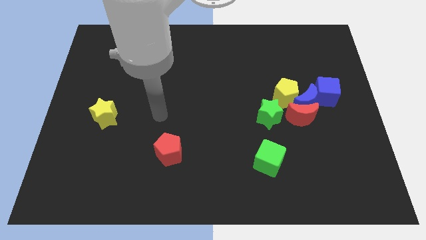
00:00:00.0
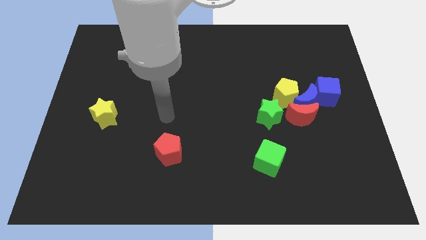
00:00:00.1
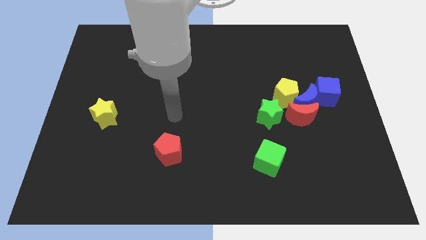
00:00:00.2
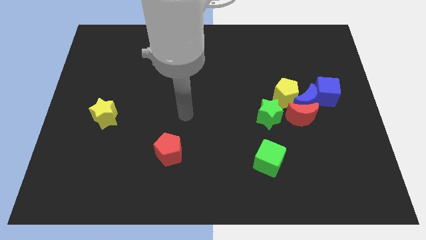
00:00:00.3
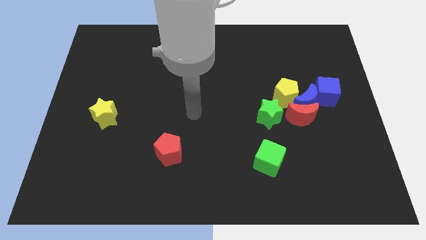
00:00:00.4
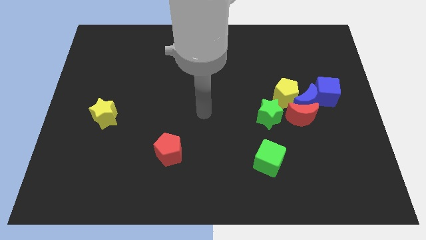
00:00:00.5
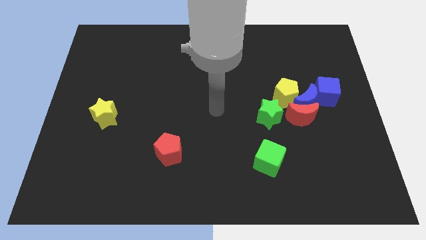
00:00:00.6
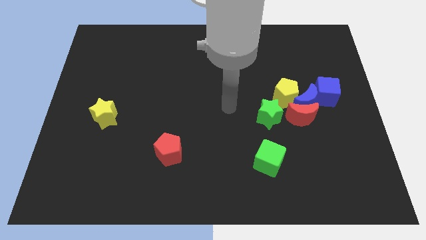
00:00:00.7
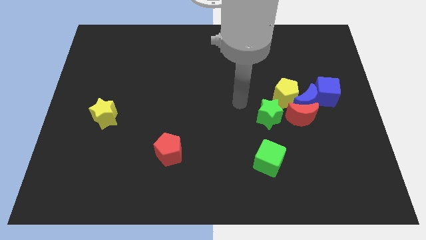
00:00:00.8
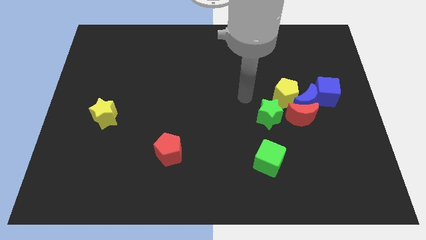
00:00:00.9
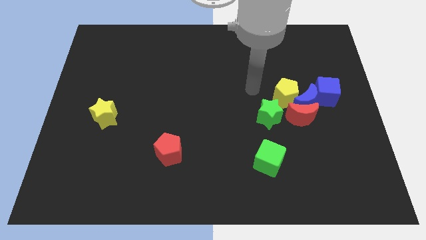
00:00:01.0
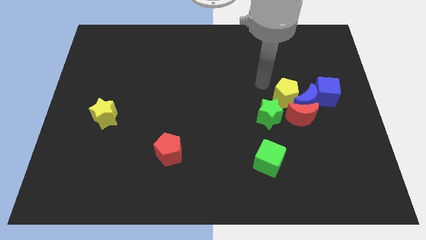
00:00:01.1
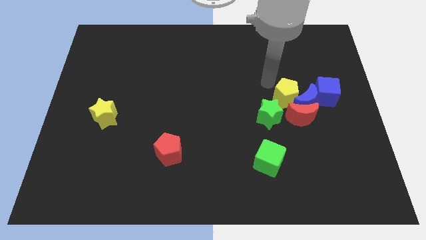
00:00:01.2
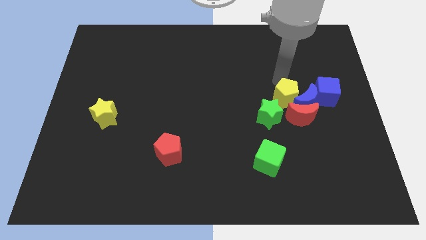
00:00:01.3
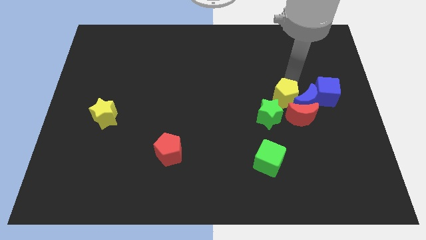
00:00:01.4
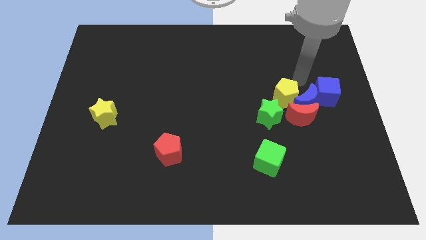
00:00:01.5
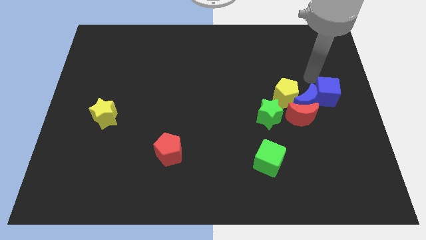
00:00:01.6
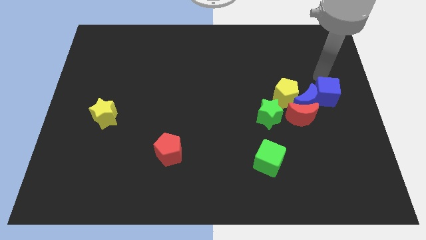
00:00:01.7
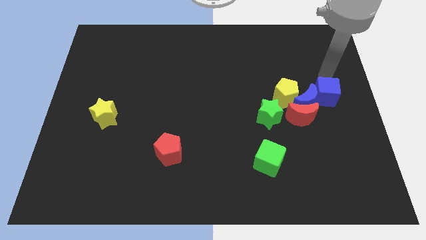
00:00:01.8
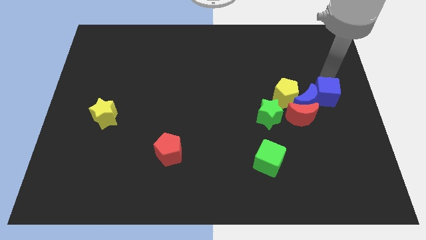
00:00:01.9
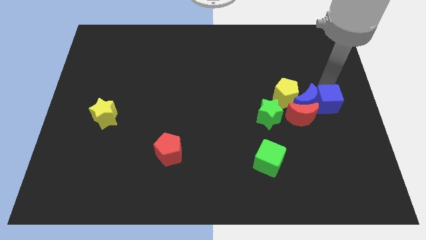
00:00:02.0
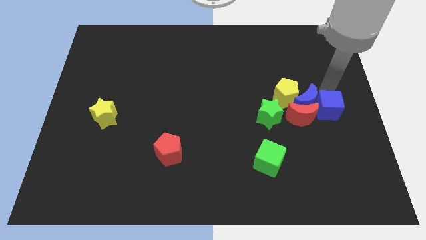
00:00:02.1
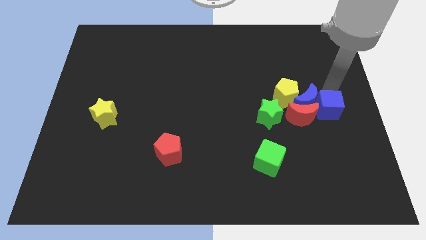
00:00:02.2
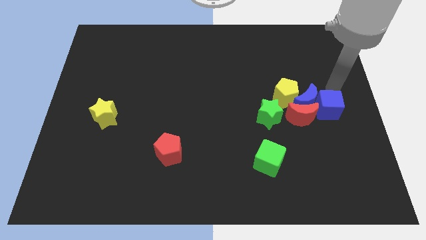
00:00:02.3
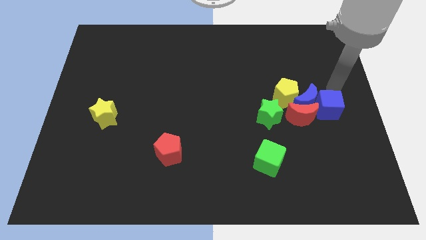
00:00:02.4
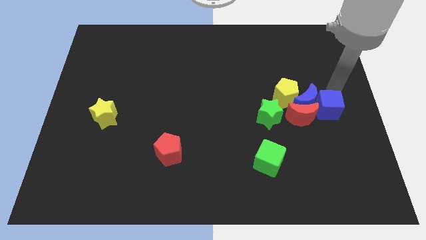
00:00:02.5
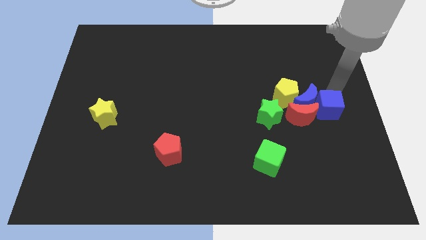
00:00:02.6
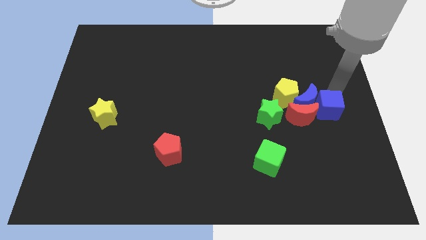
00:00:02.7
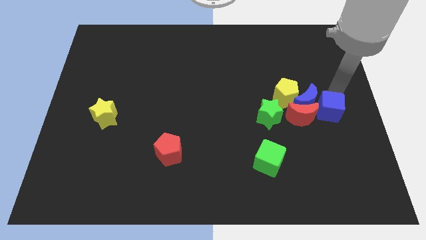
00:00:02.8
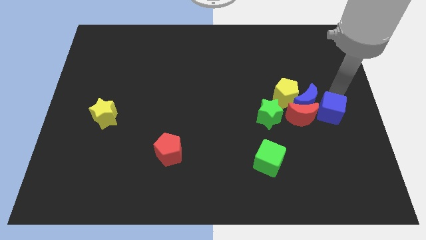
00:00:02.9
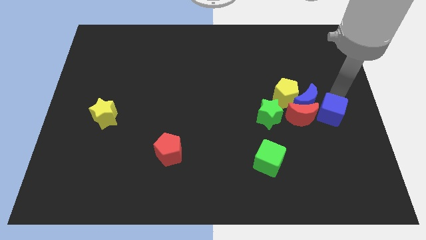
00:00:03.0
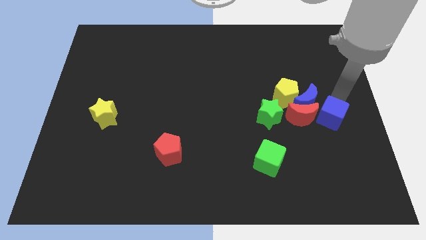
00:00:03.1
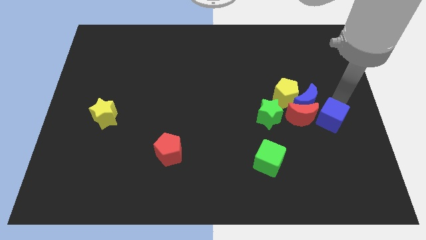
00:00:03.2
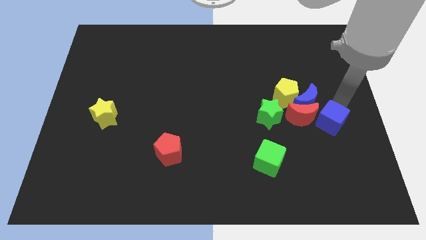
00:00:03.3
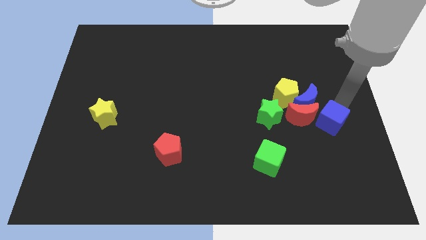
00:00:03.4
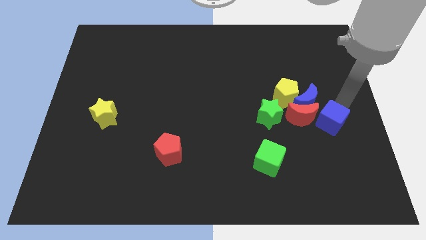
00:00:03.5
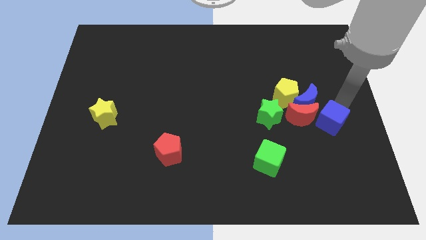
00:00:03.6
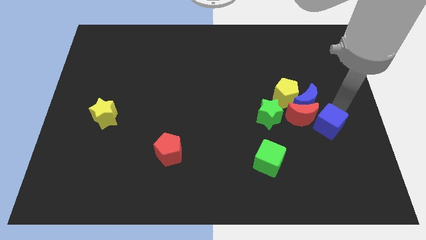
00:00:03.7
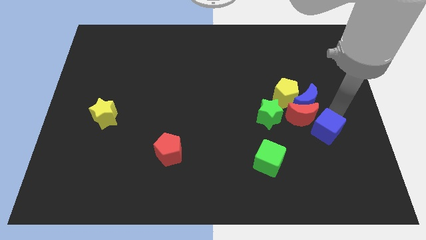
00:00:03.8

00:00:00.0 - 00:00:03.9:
slightly move the blue cube diagonally downwards and to the left

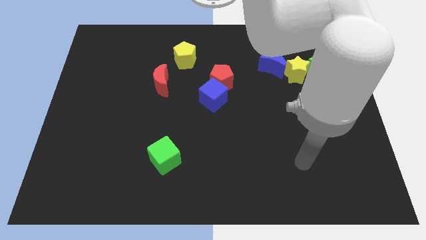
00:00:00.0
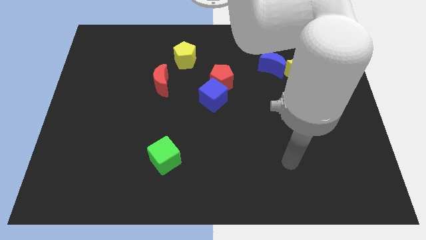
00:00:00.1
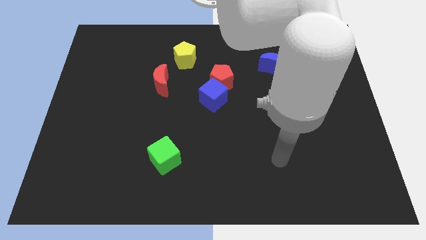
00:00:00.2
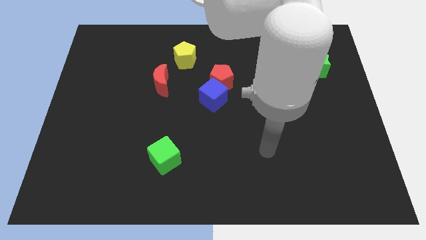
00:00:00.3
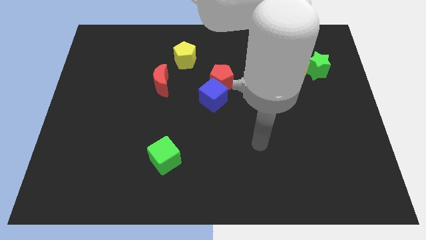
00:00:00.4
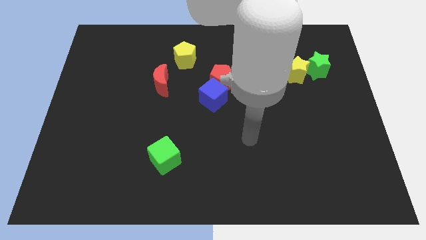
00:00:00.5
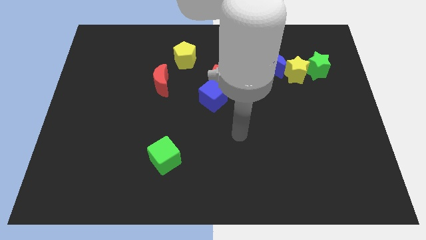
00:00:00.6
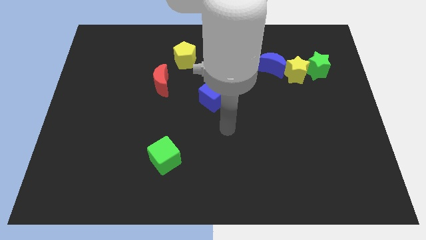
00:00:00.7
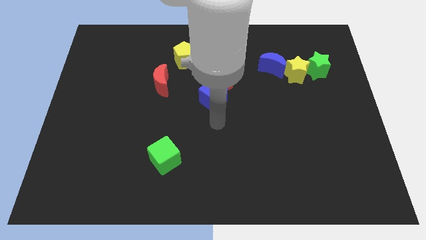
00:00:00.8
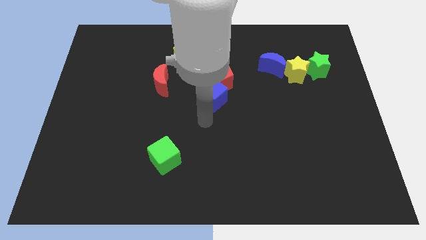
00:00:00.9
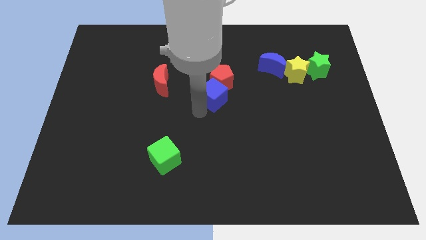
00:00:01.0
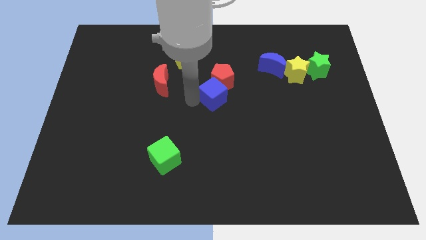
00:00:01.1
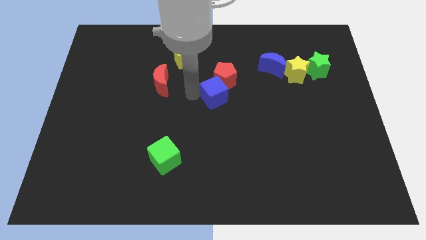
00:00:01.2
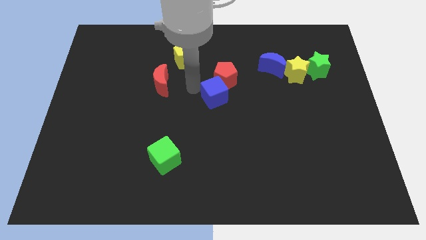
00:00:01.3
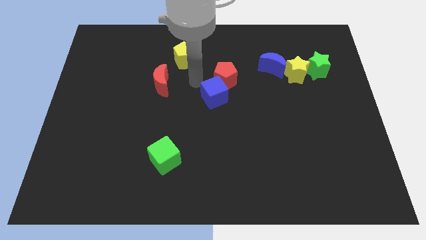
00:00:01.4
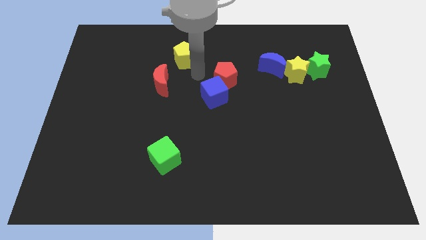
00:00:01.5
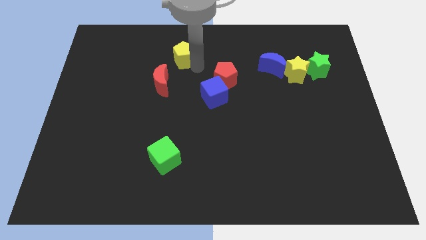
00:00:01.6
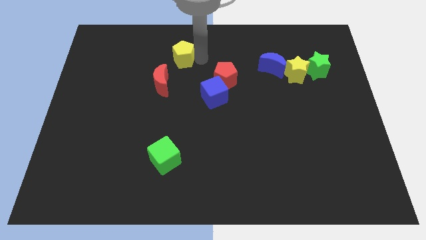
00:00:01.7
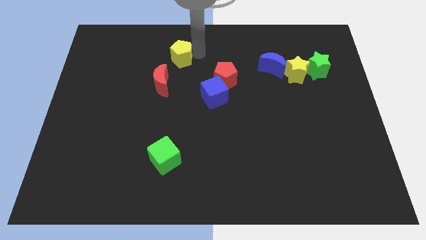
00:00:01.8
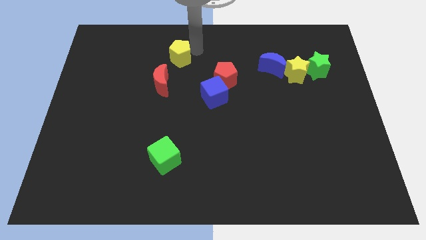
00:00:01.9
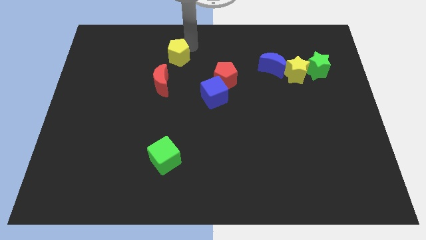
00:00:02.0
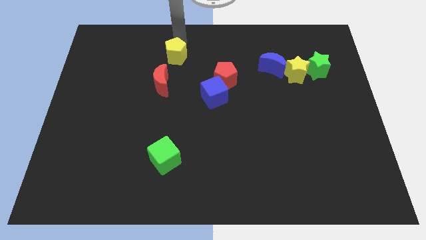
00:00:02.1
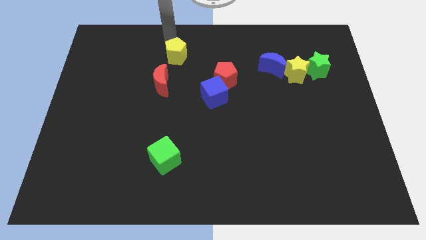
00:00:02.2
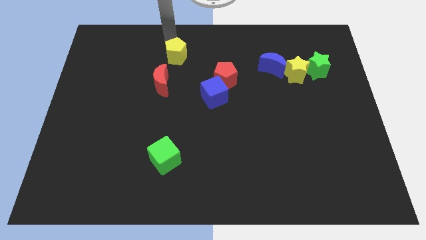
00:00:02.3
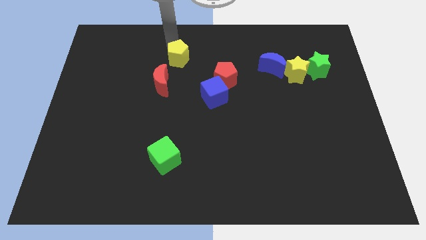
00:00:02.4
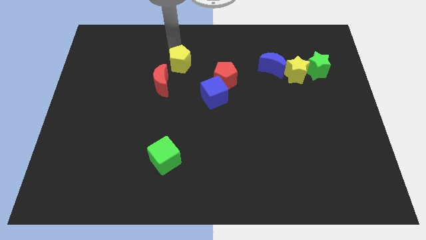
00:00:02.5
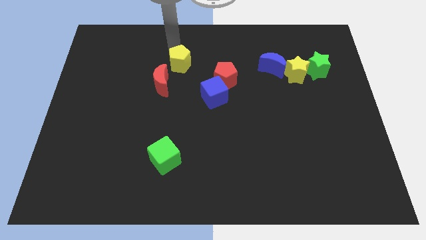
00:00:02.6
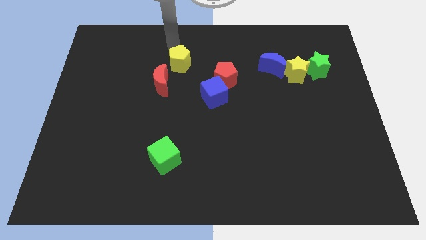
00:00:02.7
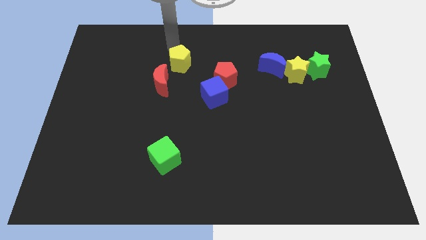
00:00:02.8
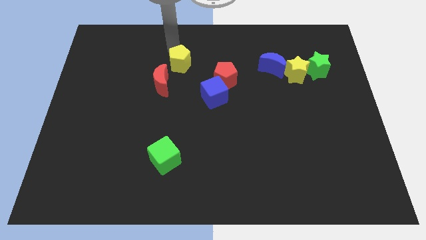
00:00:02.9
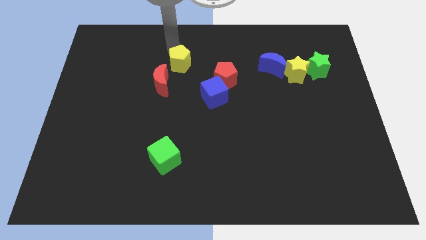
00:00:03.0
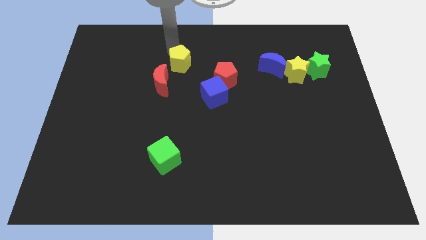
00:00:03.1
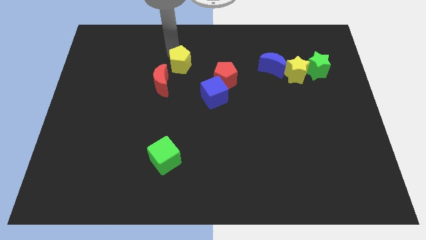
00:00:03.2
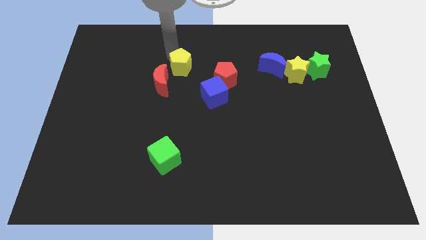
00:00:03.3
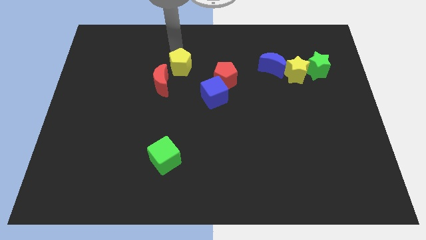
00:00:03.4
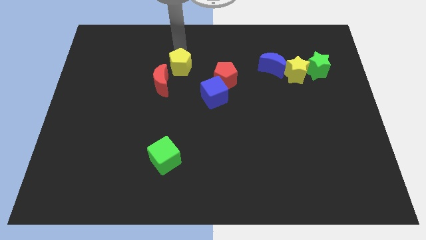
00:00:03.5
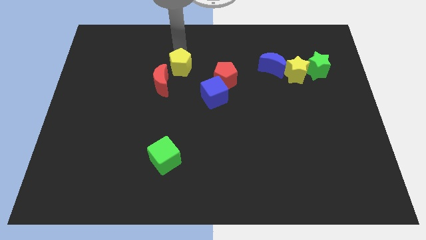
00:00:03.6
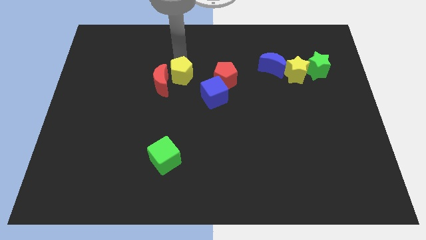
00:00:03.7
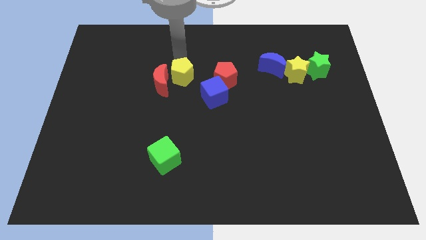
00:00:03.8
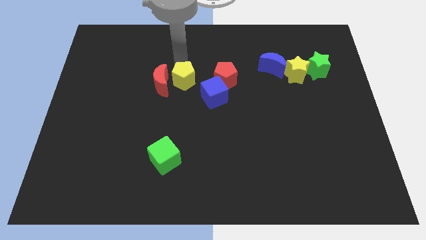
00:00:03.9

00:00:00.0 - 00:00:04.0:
move the yellow pentagon downwards slightly
